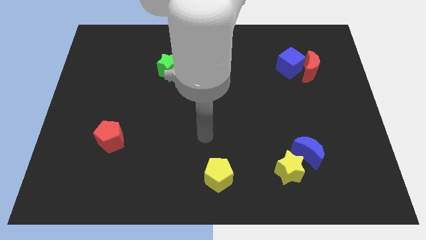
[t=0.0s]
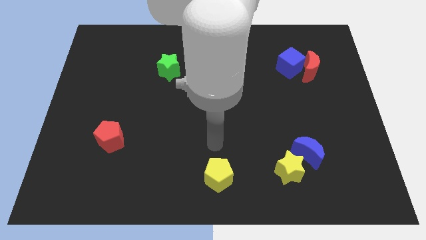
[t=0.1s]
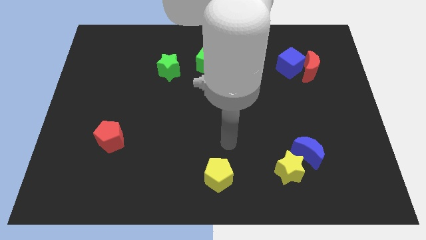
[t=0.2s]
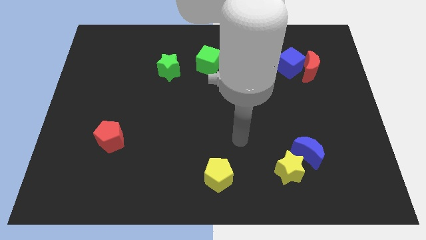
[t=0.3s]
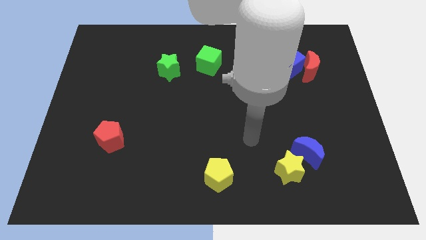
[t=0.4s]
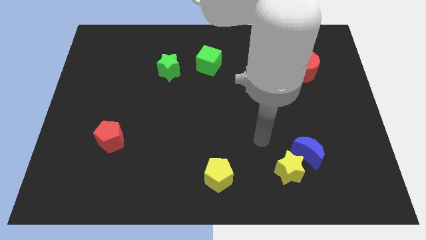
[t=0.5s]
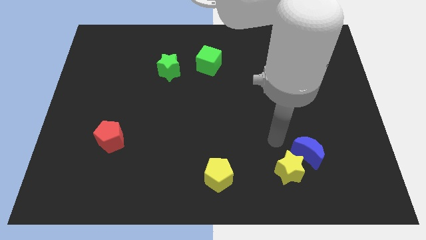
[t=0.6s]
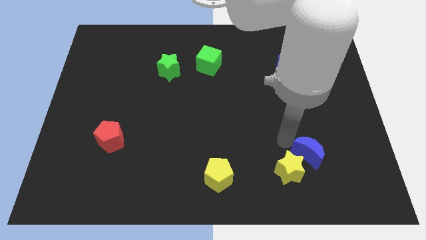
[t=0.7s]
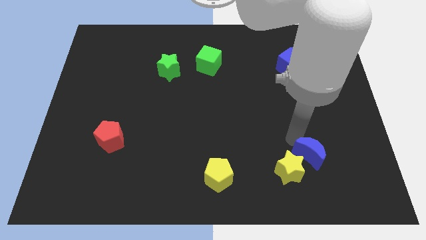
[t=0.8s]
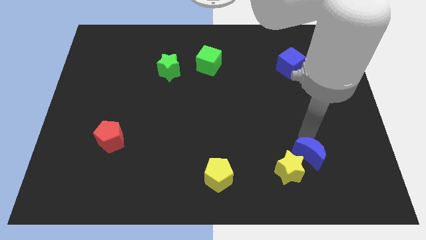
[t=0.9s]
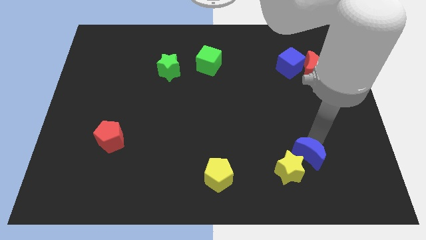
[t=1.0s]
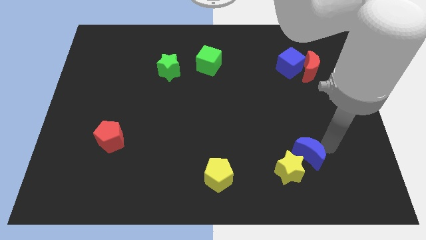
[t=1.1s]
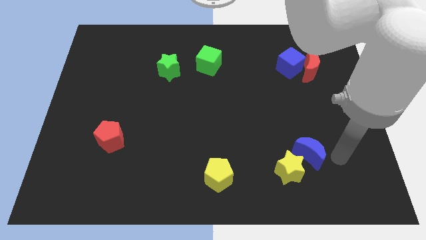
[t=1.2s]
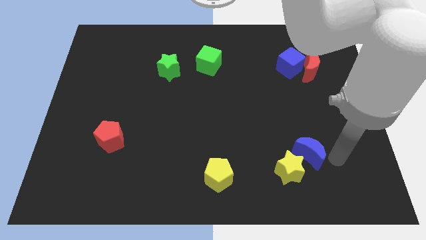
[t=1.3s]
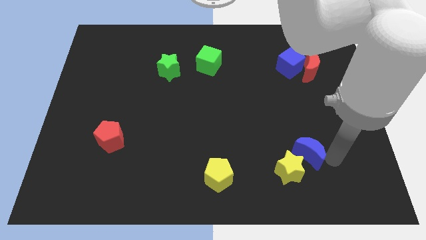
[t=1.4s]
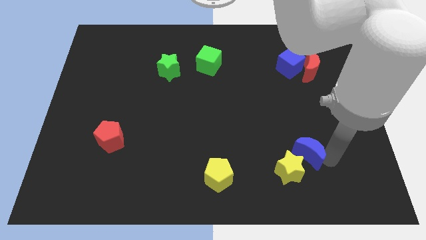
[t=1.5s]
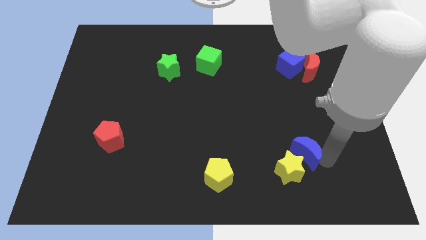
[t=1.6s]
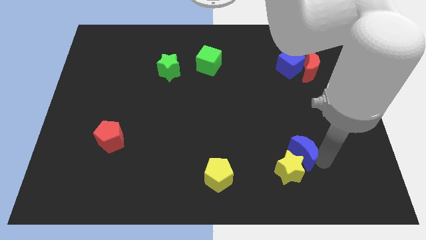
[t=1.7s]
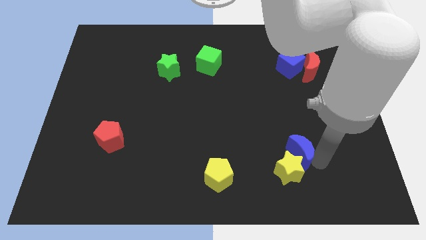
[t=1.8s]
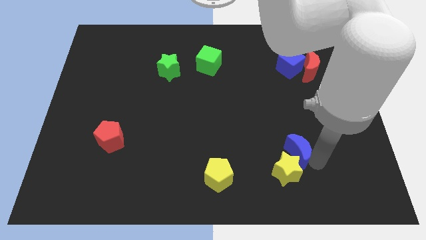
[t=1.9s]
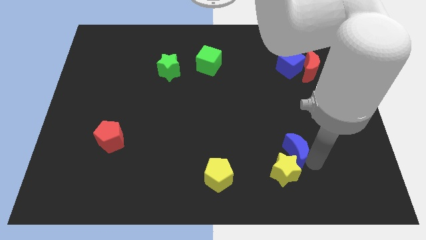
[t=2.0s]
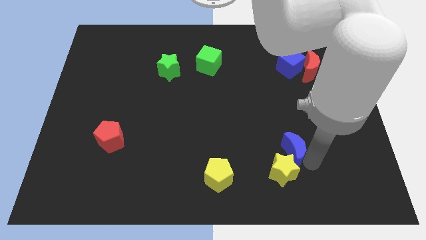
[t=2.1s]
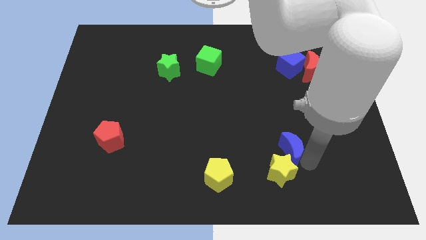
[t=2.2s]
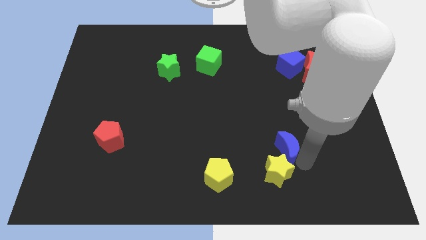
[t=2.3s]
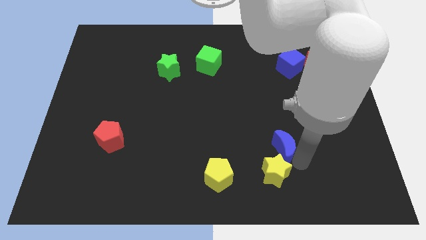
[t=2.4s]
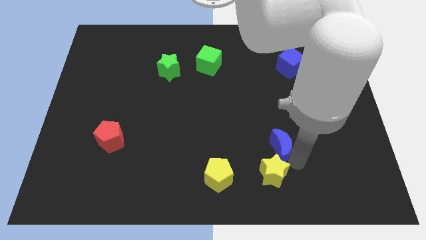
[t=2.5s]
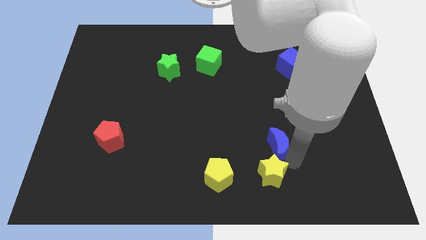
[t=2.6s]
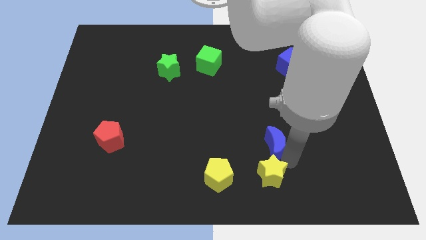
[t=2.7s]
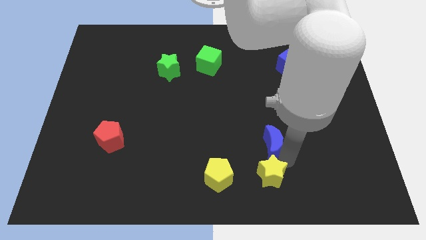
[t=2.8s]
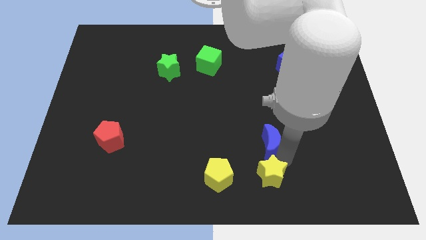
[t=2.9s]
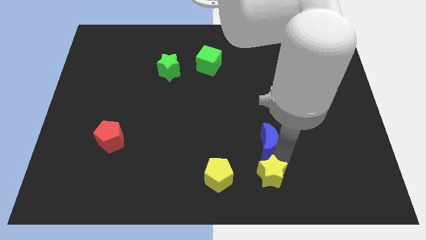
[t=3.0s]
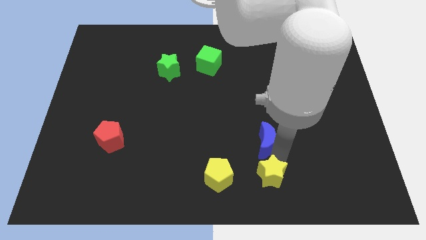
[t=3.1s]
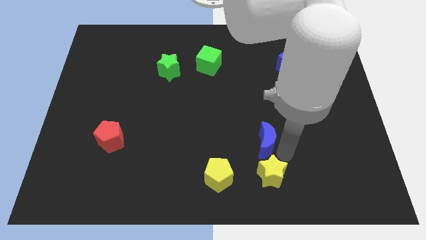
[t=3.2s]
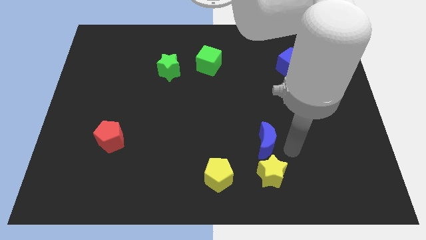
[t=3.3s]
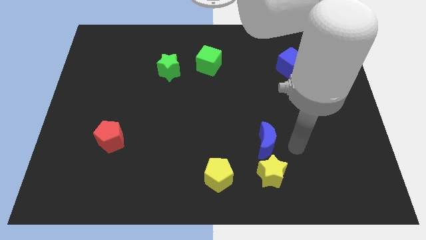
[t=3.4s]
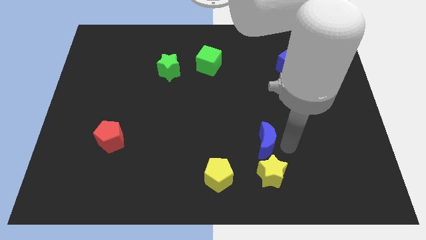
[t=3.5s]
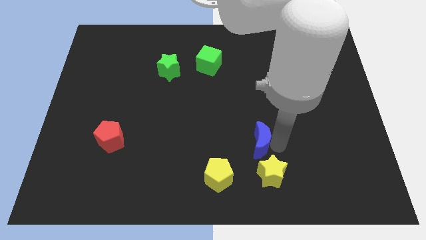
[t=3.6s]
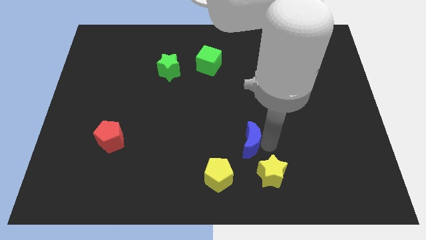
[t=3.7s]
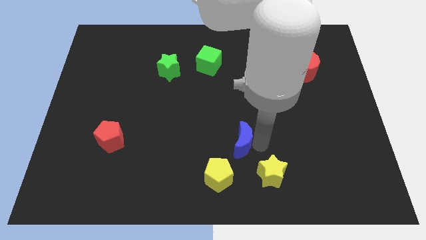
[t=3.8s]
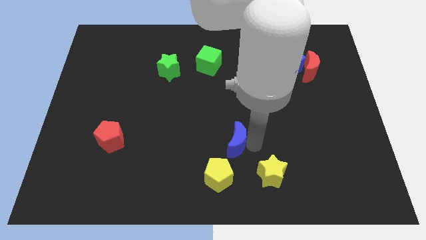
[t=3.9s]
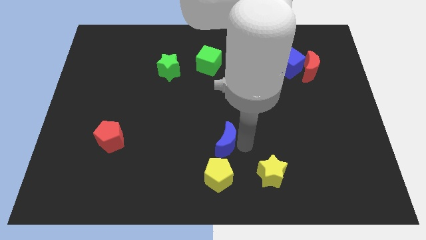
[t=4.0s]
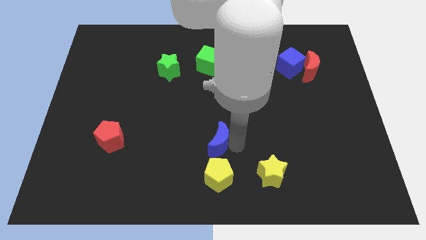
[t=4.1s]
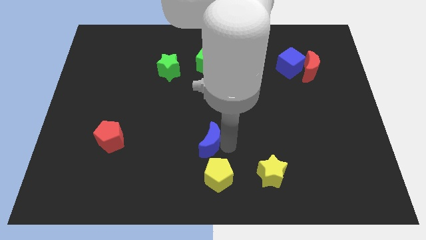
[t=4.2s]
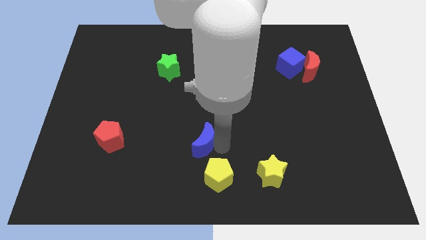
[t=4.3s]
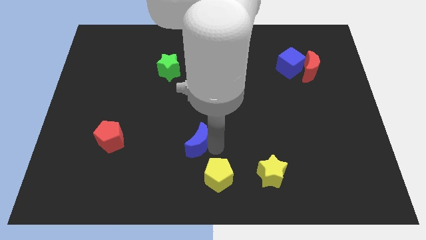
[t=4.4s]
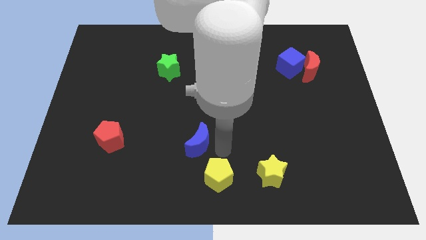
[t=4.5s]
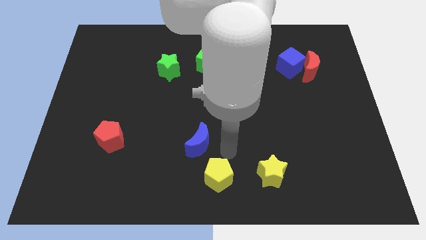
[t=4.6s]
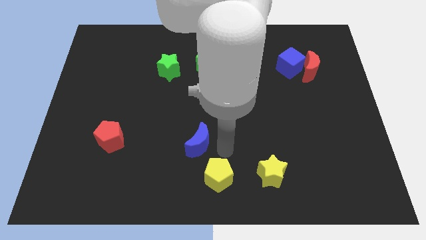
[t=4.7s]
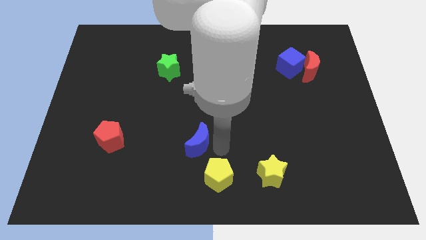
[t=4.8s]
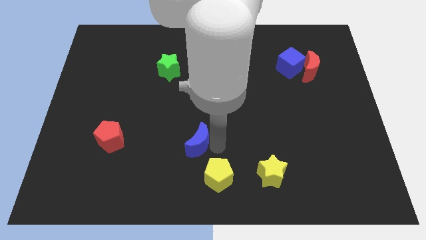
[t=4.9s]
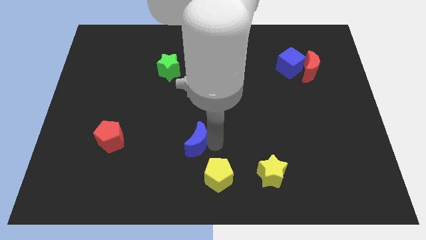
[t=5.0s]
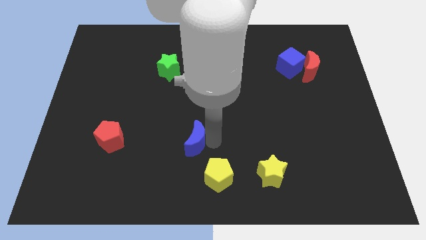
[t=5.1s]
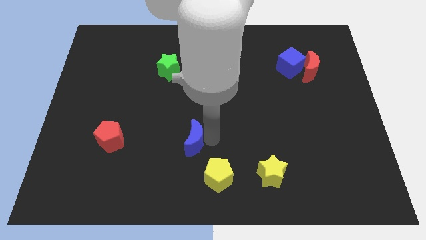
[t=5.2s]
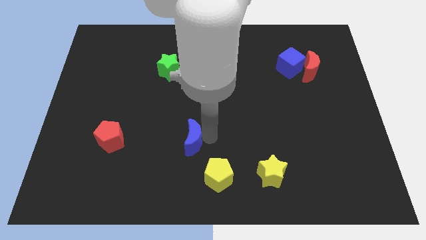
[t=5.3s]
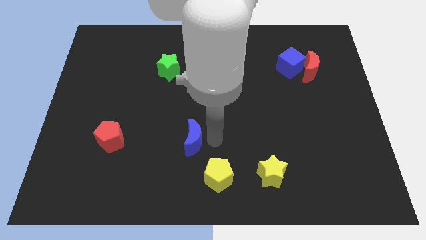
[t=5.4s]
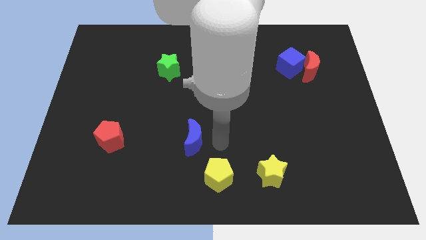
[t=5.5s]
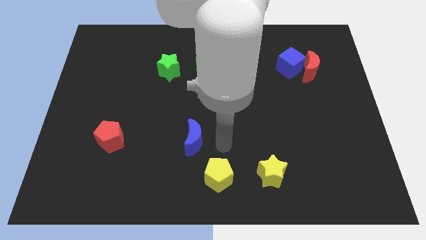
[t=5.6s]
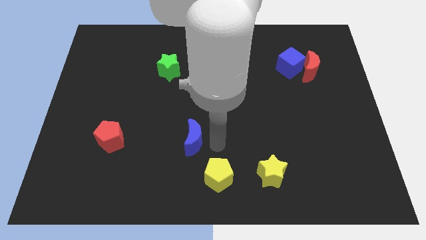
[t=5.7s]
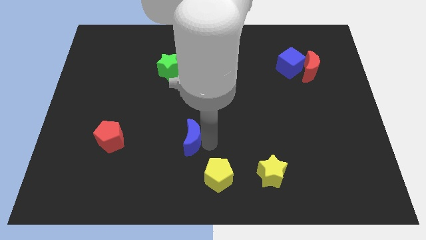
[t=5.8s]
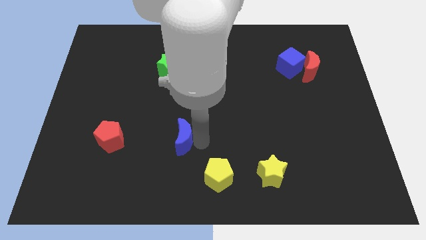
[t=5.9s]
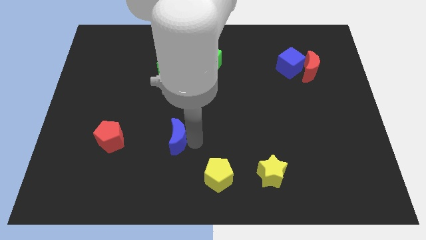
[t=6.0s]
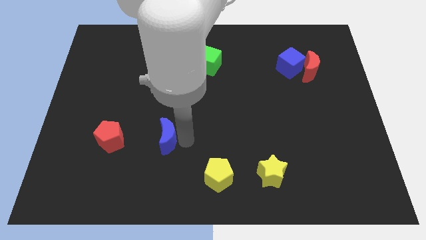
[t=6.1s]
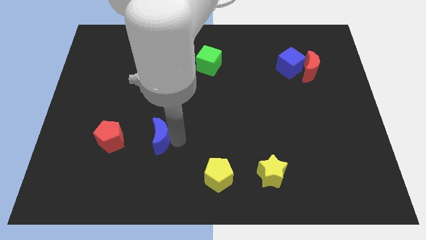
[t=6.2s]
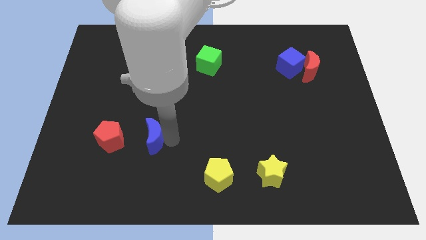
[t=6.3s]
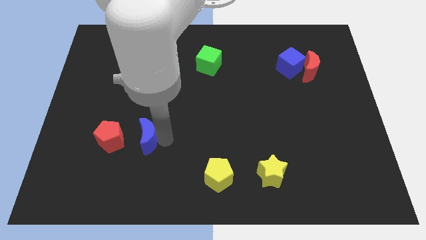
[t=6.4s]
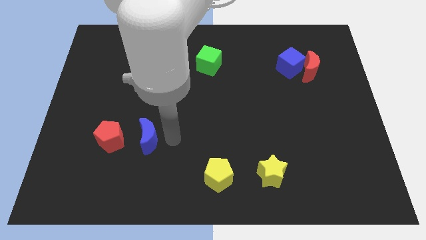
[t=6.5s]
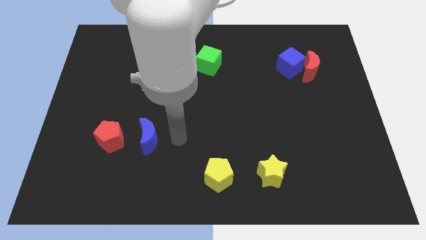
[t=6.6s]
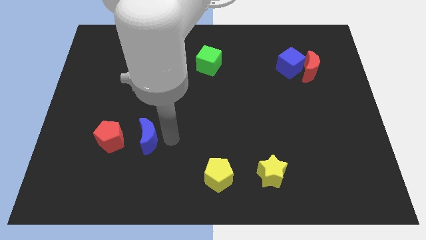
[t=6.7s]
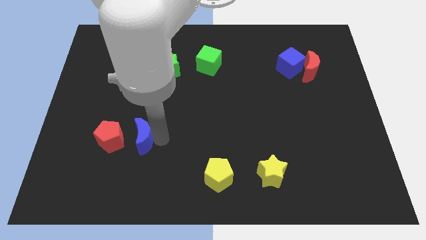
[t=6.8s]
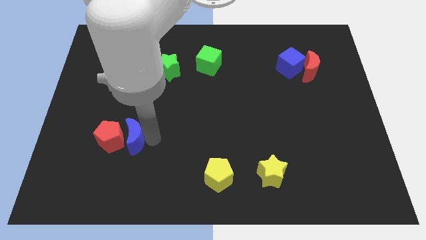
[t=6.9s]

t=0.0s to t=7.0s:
move the blue moon towards the red pentagon

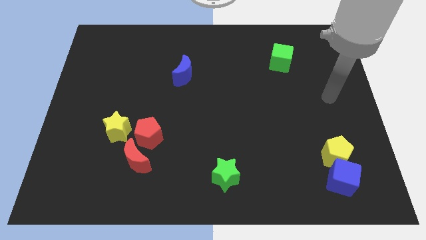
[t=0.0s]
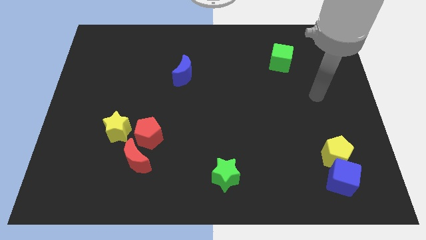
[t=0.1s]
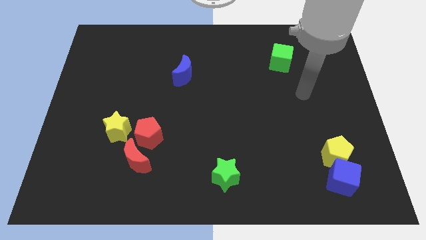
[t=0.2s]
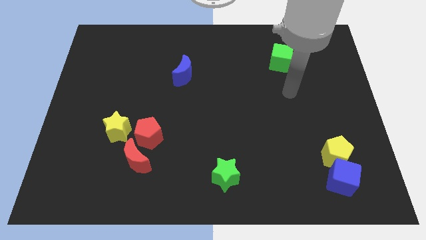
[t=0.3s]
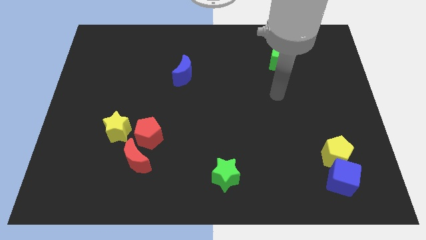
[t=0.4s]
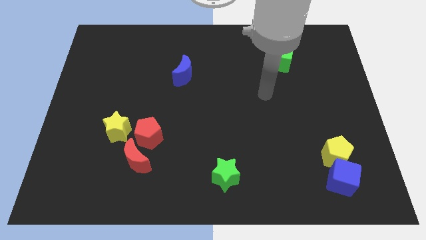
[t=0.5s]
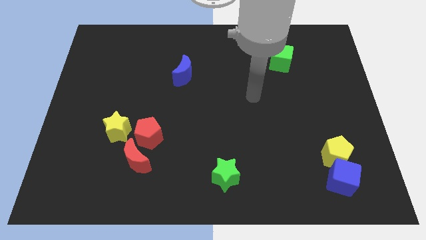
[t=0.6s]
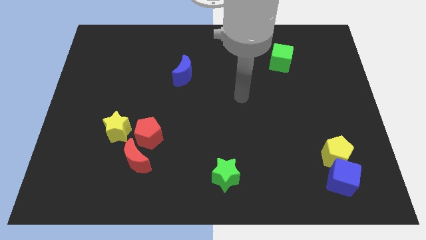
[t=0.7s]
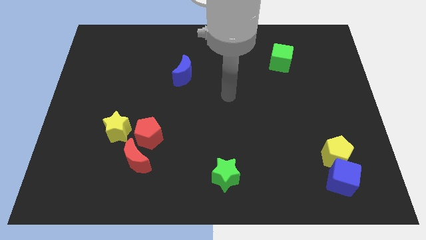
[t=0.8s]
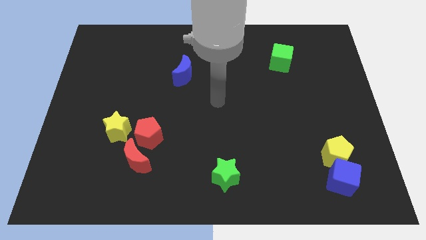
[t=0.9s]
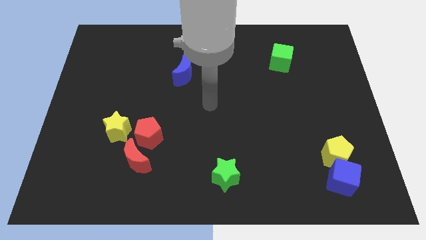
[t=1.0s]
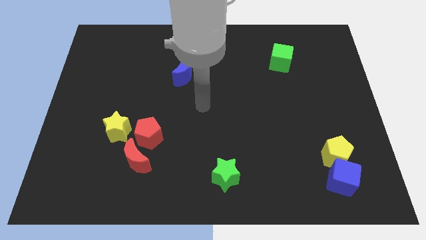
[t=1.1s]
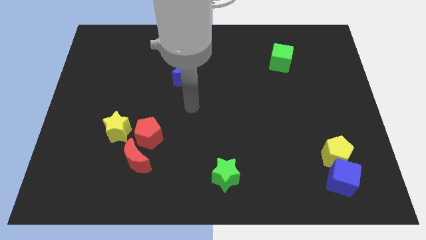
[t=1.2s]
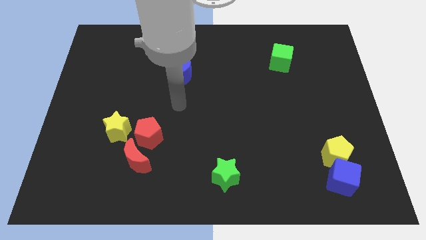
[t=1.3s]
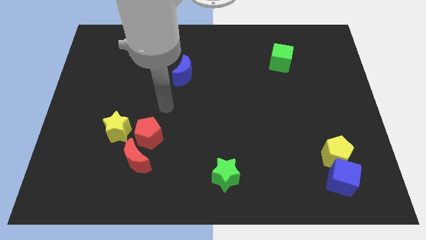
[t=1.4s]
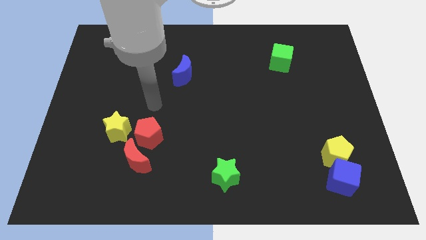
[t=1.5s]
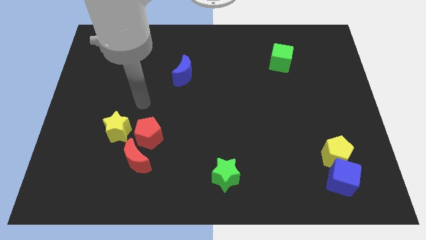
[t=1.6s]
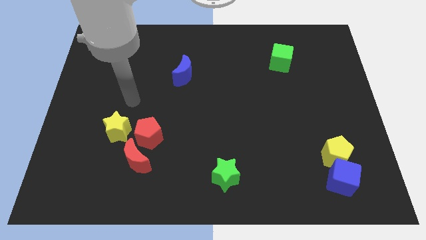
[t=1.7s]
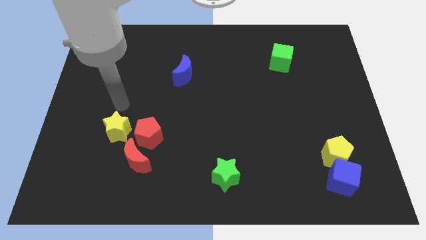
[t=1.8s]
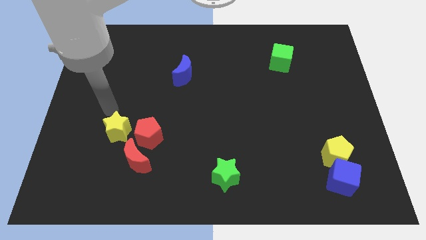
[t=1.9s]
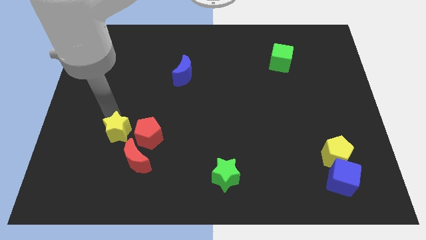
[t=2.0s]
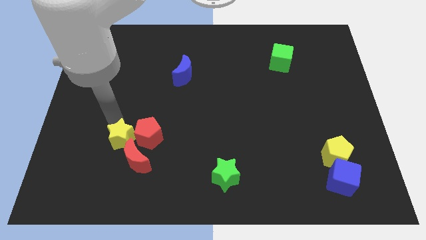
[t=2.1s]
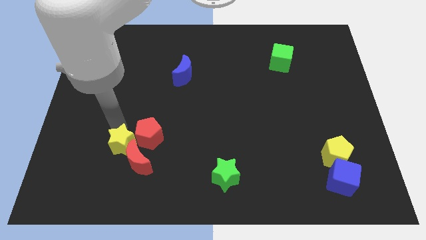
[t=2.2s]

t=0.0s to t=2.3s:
slide the yellow star towards the red moon
